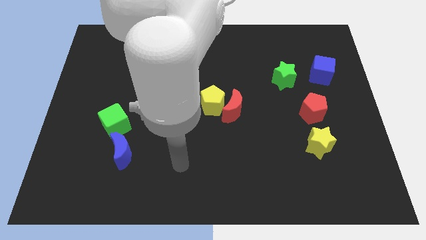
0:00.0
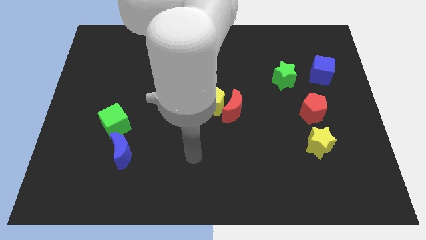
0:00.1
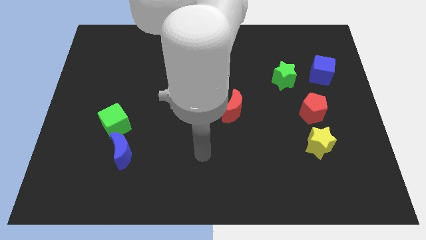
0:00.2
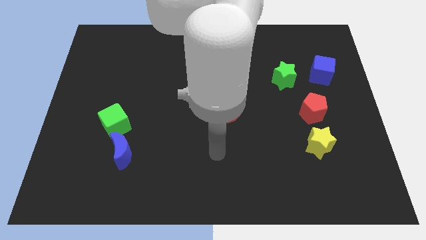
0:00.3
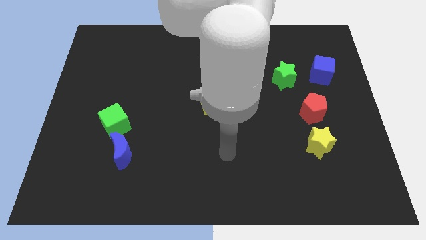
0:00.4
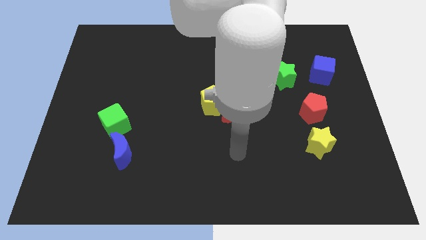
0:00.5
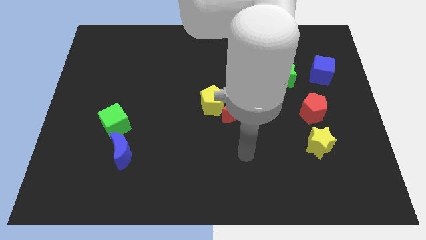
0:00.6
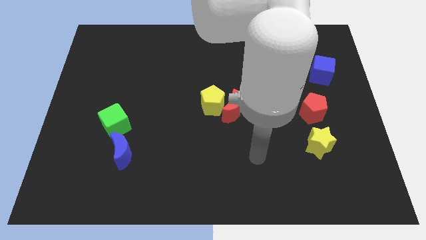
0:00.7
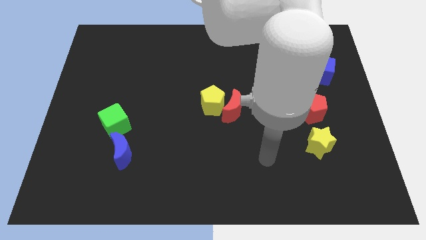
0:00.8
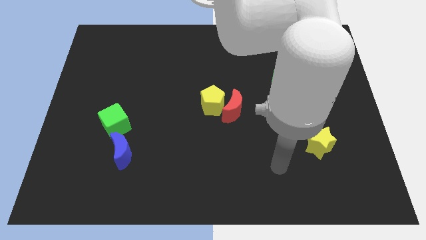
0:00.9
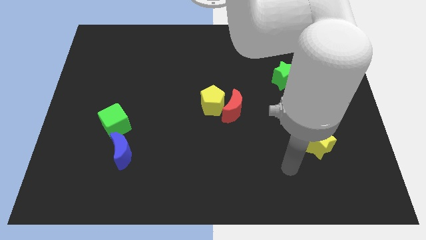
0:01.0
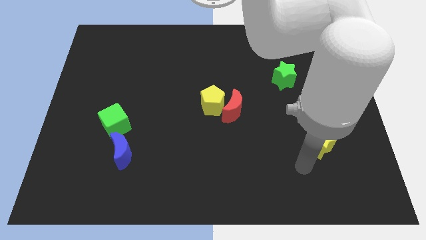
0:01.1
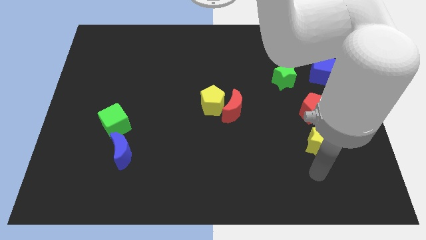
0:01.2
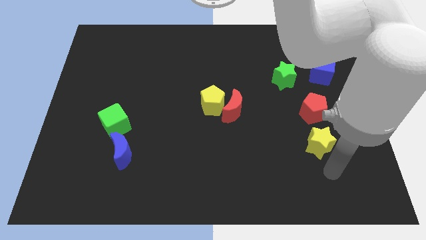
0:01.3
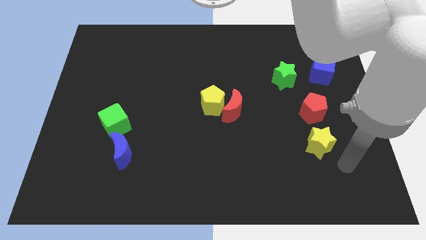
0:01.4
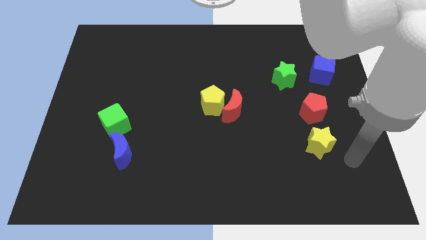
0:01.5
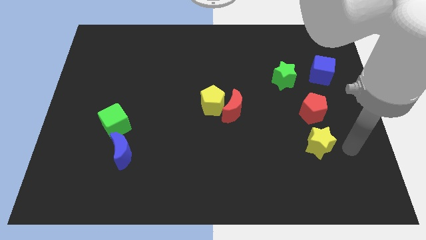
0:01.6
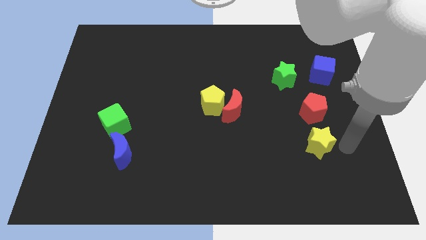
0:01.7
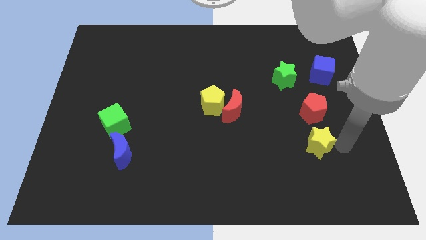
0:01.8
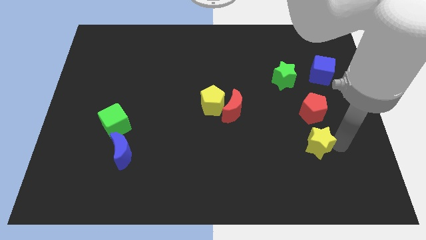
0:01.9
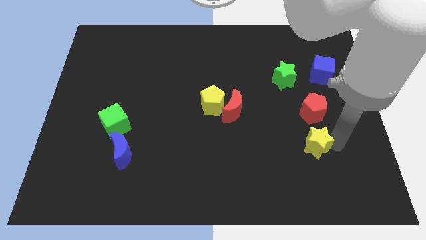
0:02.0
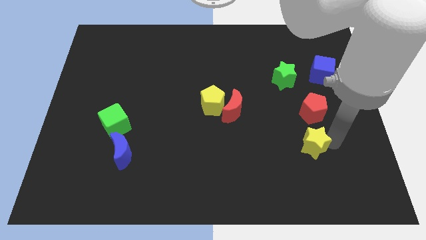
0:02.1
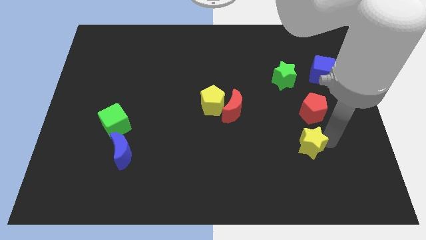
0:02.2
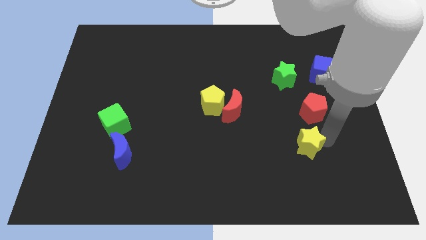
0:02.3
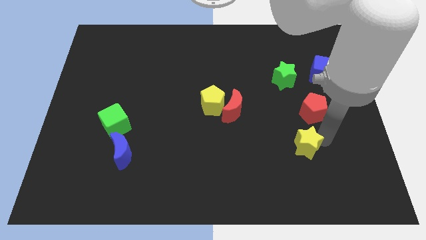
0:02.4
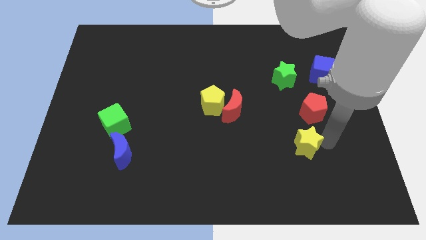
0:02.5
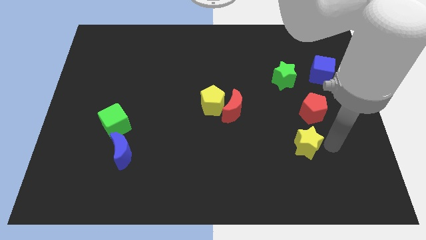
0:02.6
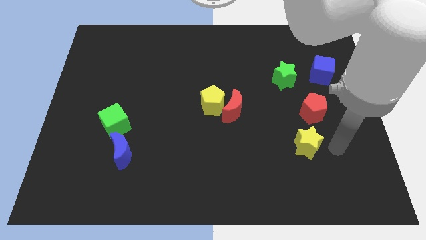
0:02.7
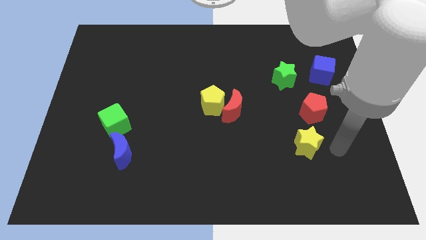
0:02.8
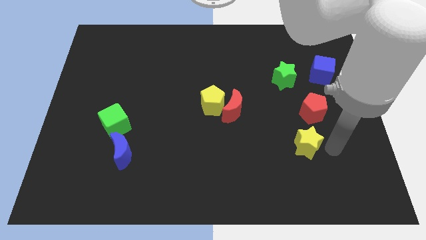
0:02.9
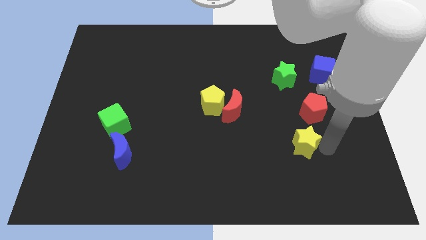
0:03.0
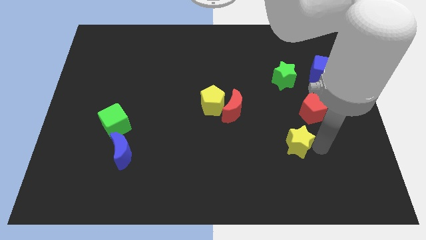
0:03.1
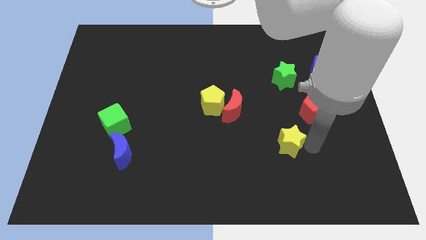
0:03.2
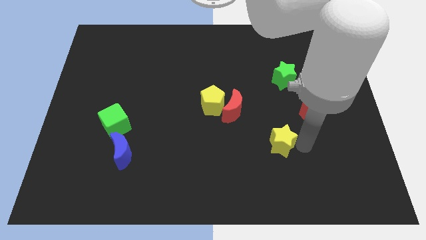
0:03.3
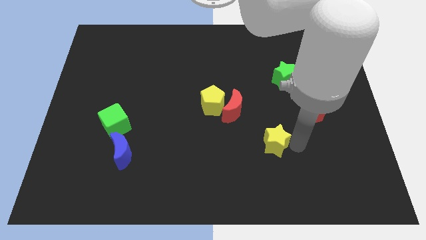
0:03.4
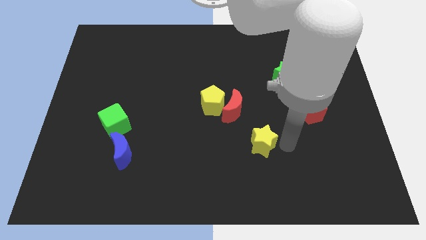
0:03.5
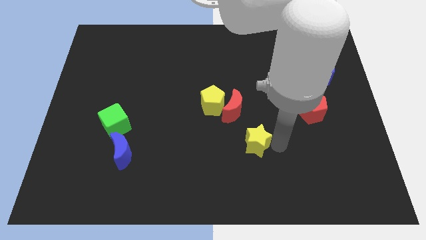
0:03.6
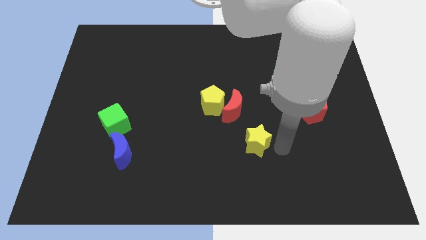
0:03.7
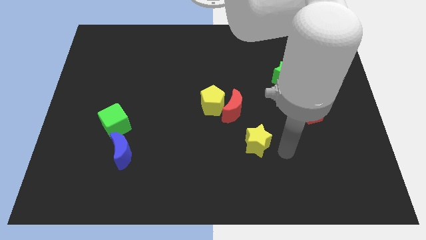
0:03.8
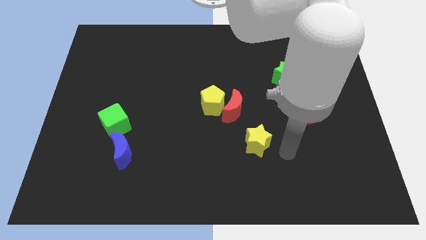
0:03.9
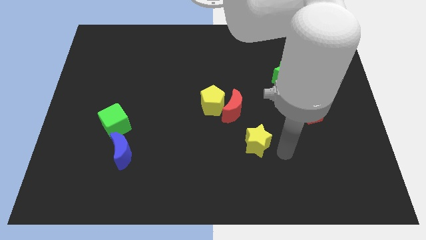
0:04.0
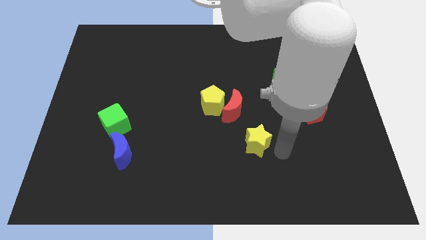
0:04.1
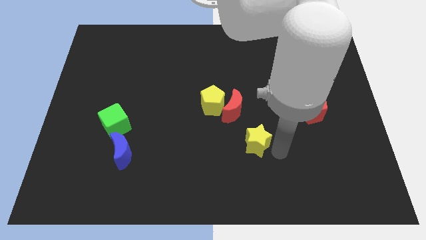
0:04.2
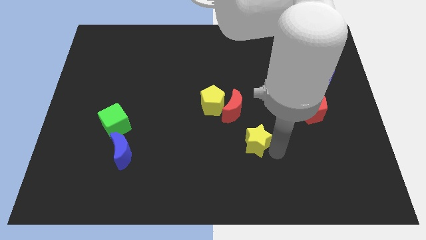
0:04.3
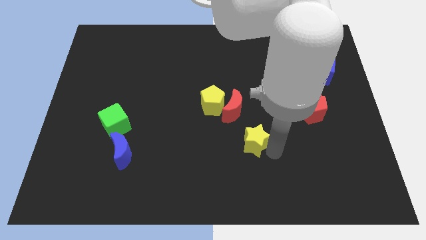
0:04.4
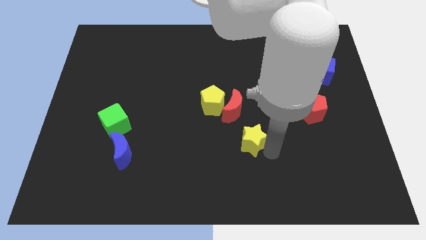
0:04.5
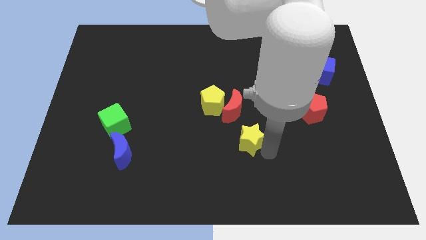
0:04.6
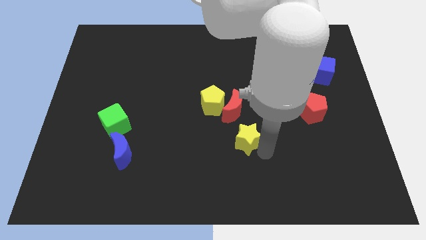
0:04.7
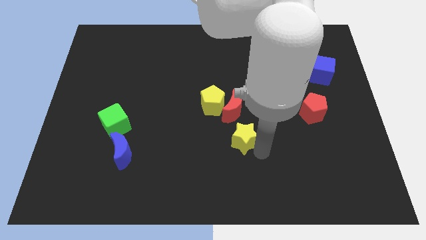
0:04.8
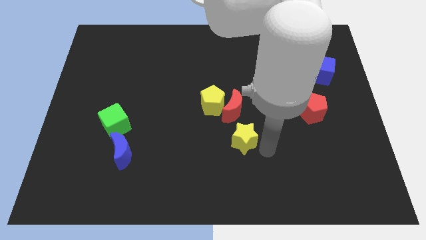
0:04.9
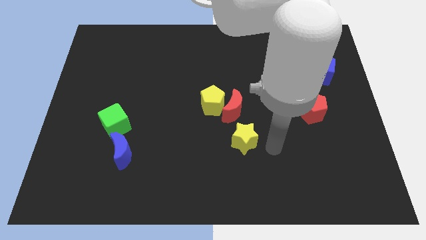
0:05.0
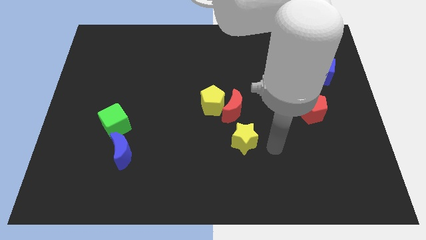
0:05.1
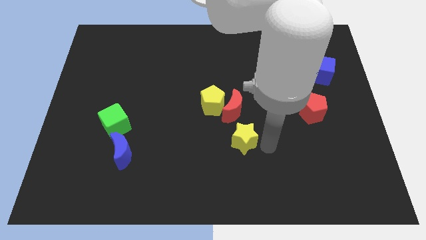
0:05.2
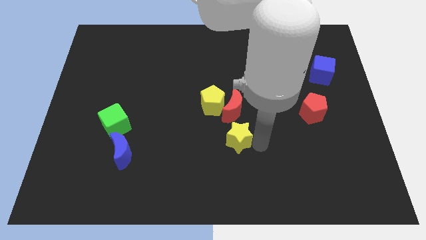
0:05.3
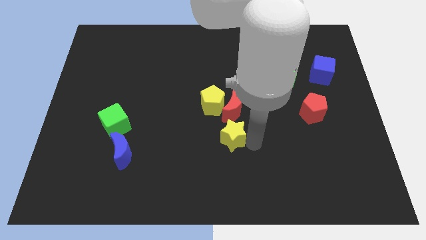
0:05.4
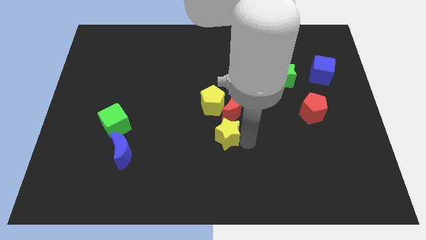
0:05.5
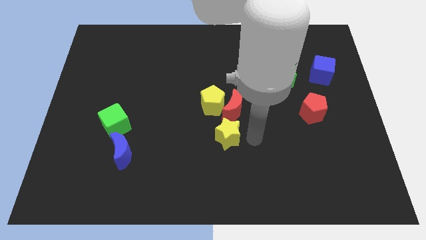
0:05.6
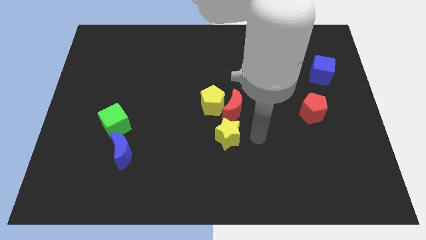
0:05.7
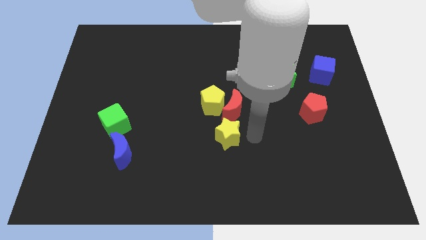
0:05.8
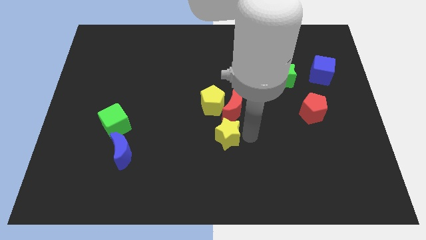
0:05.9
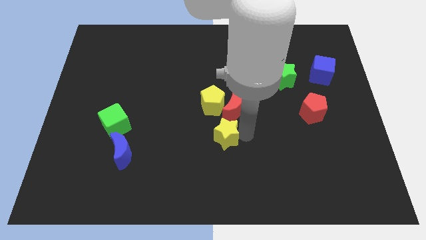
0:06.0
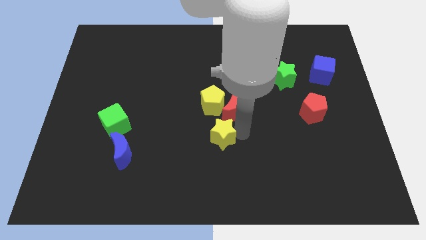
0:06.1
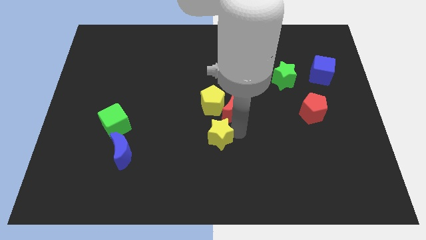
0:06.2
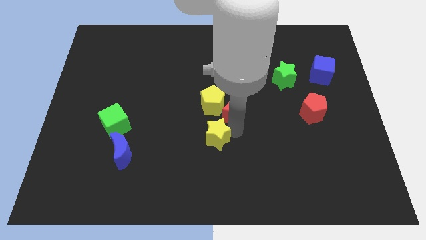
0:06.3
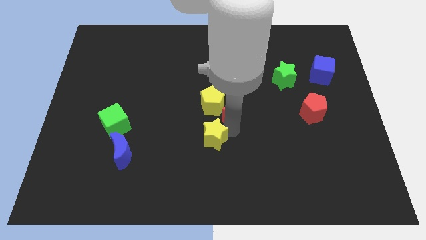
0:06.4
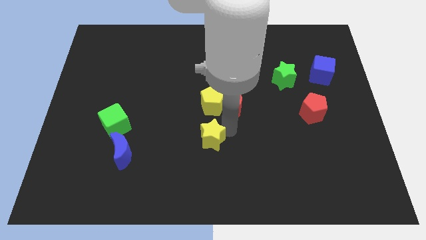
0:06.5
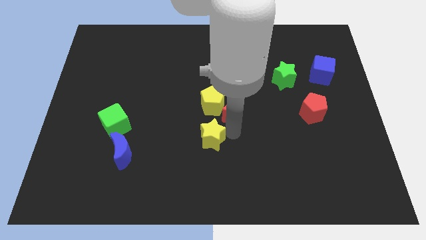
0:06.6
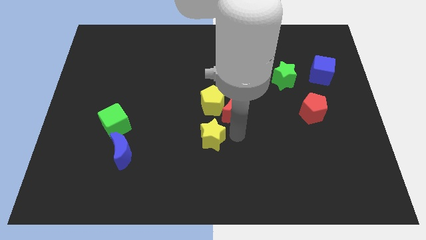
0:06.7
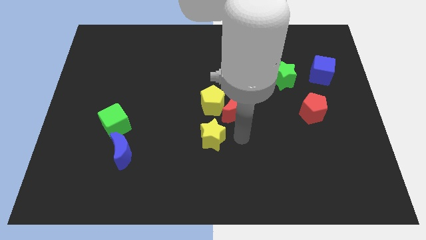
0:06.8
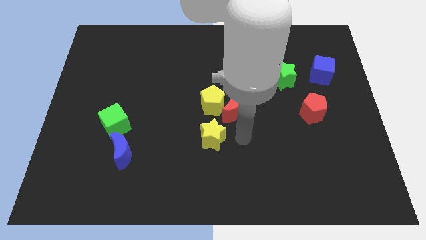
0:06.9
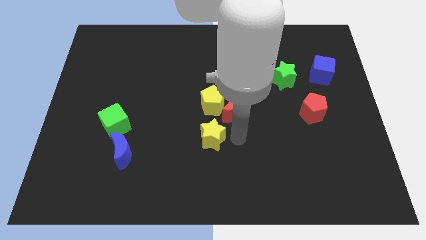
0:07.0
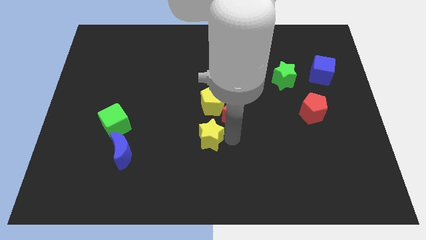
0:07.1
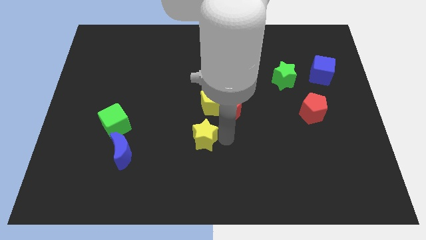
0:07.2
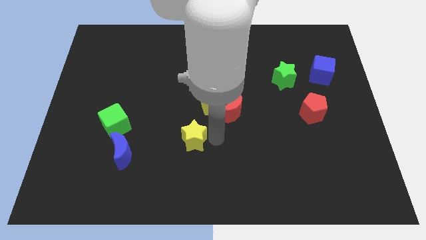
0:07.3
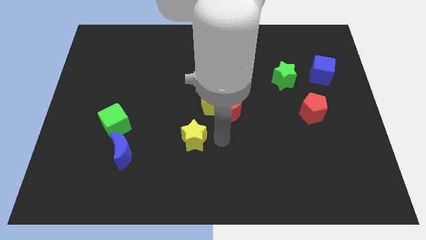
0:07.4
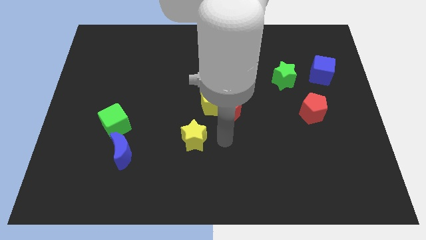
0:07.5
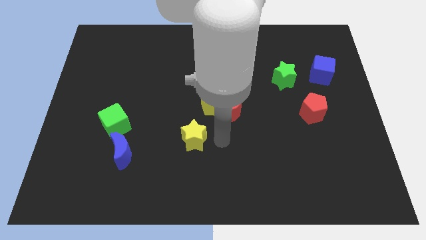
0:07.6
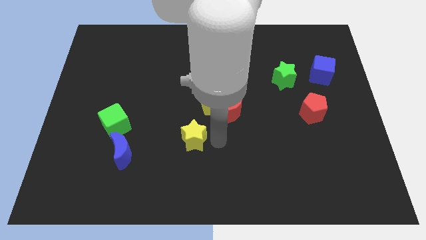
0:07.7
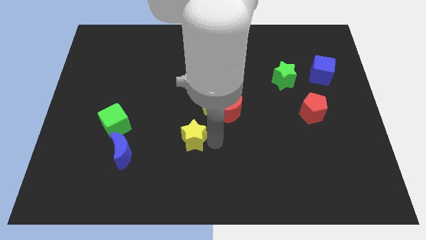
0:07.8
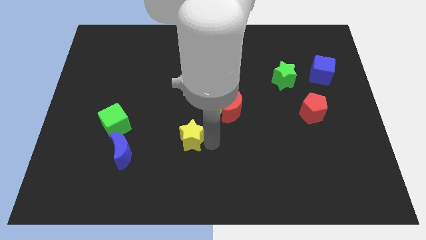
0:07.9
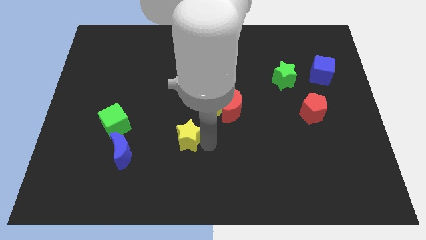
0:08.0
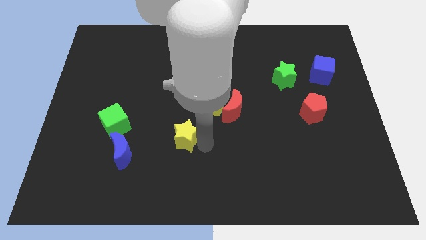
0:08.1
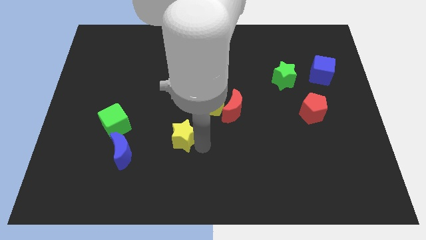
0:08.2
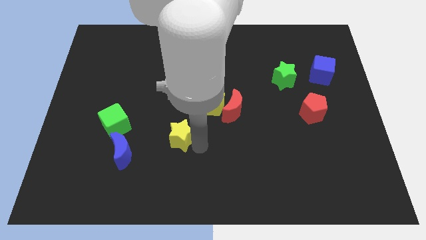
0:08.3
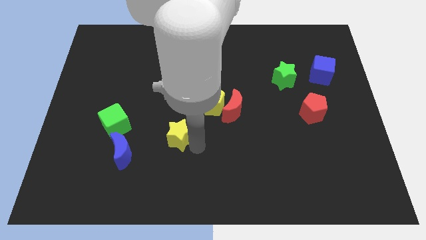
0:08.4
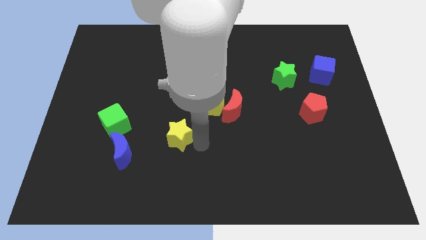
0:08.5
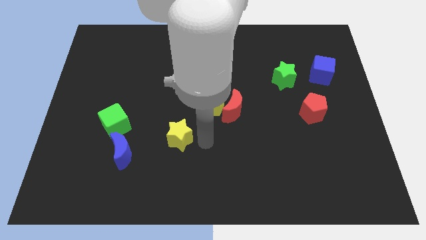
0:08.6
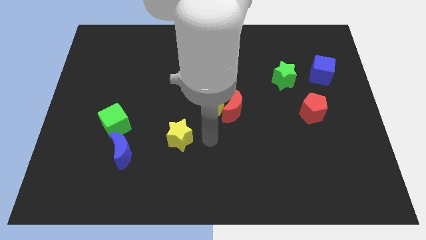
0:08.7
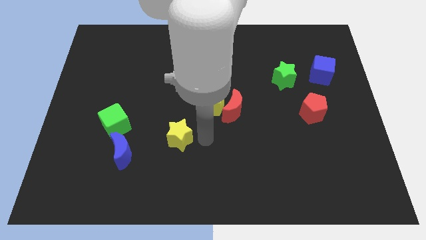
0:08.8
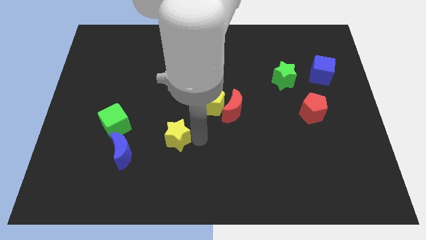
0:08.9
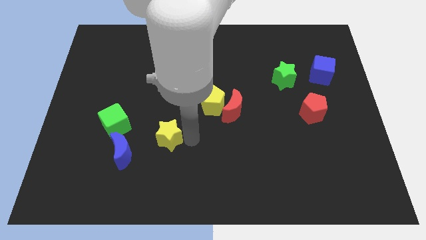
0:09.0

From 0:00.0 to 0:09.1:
put the yellow star diagonally up and to the right of the blue moon
